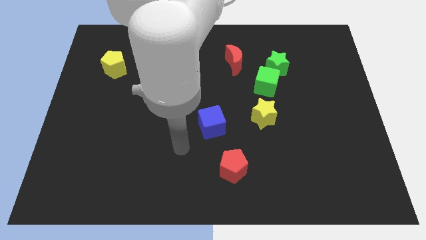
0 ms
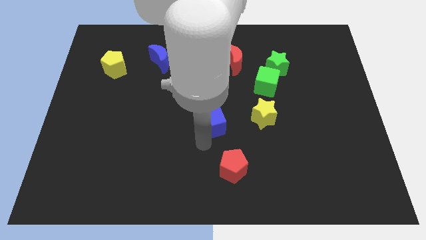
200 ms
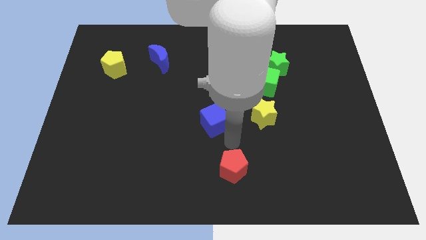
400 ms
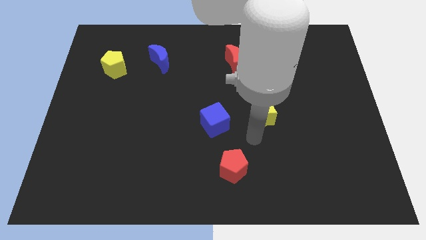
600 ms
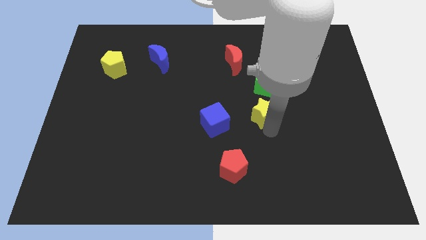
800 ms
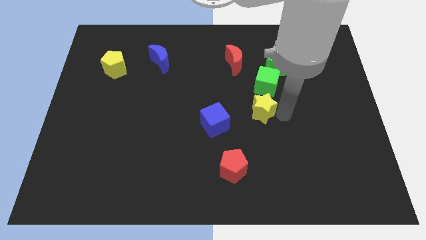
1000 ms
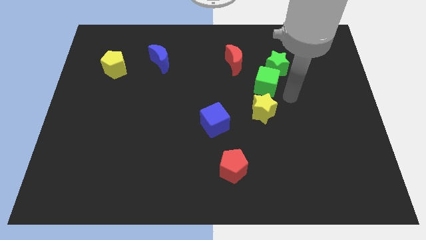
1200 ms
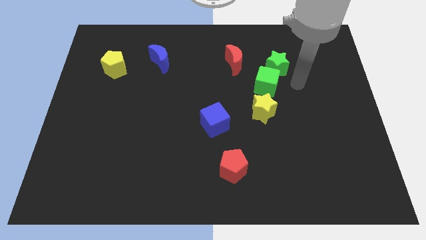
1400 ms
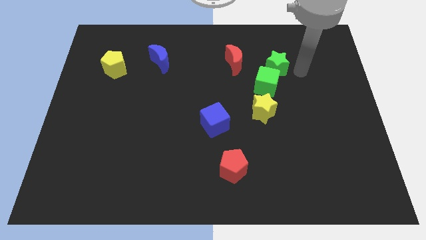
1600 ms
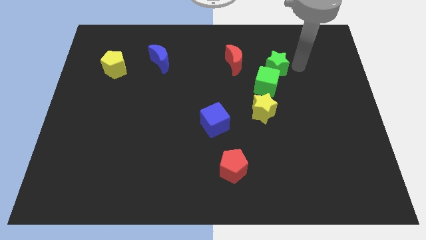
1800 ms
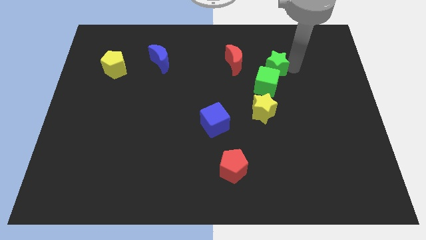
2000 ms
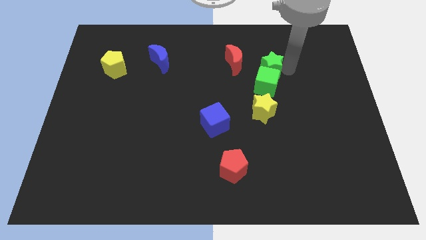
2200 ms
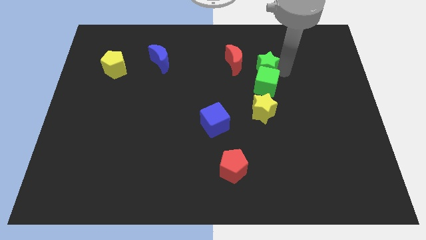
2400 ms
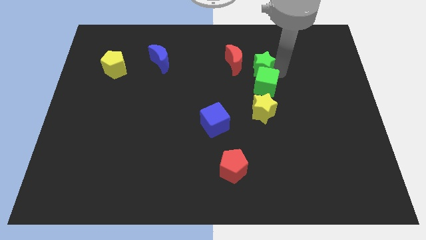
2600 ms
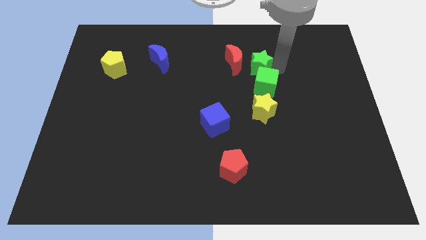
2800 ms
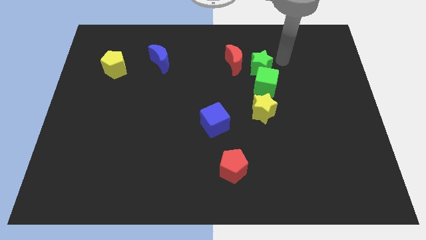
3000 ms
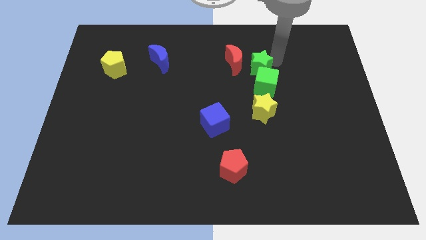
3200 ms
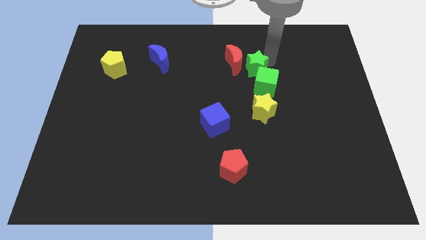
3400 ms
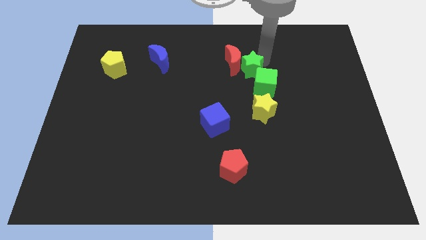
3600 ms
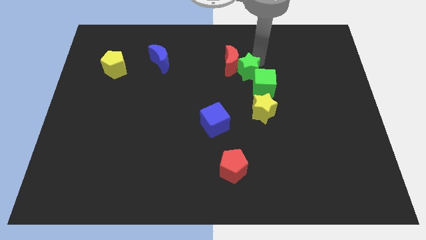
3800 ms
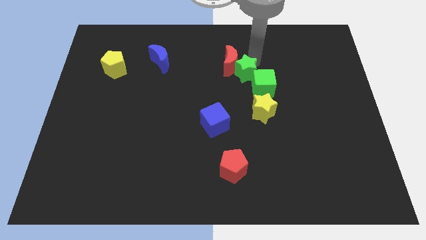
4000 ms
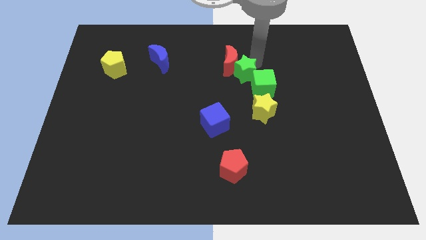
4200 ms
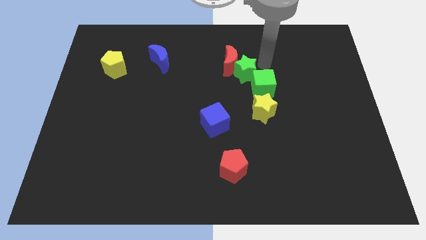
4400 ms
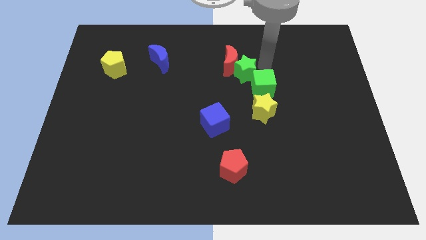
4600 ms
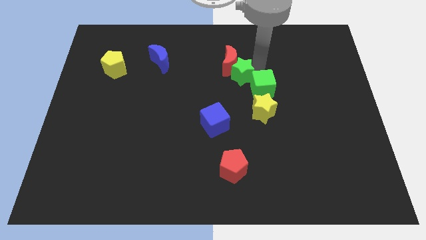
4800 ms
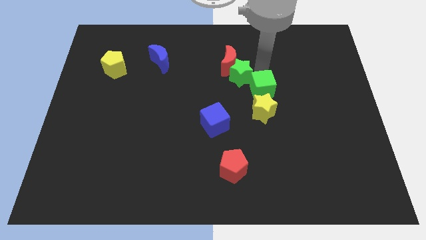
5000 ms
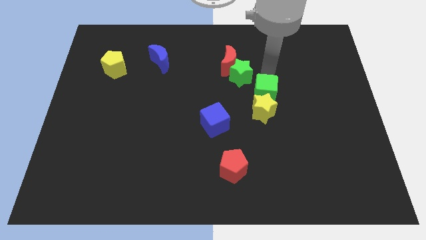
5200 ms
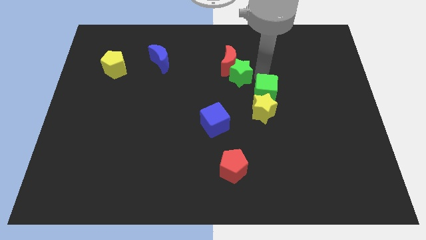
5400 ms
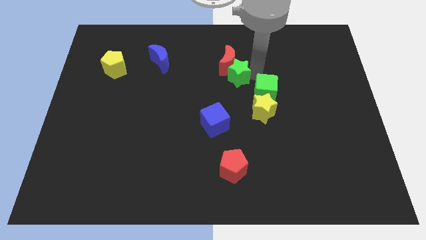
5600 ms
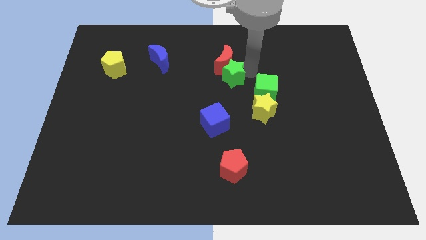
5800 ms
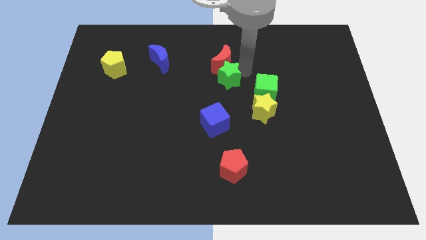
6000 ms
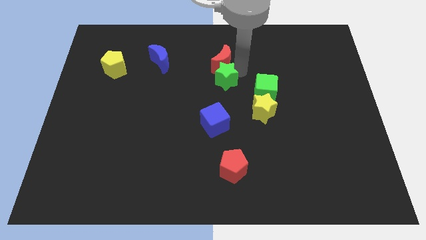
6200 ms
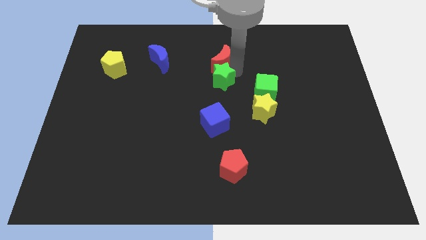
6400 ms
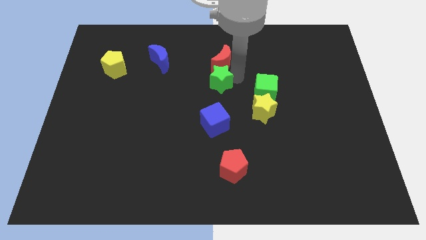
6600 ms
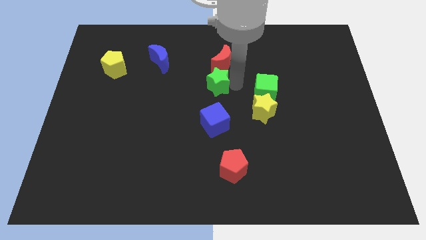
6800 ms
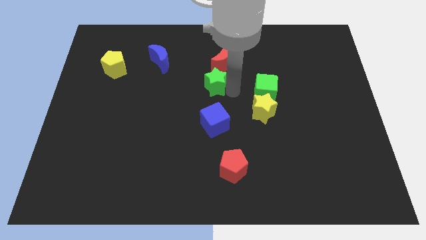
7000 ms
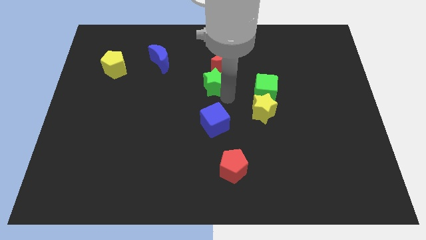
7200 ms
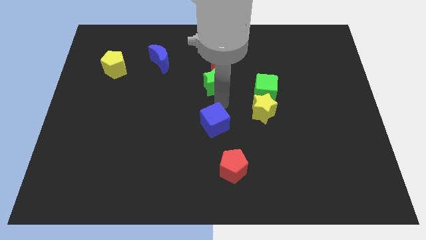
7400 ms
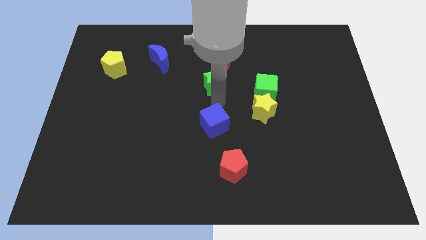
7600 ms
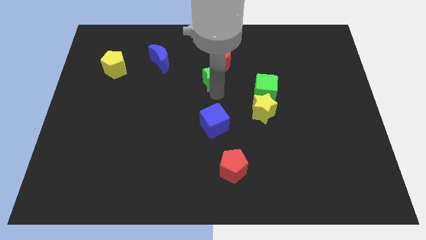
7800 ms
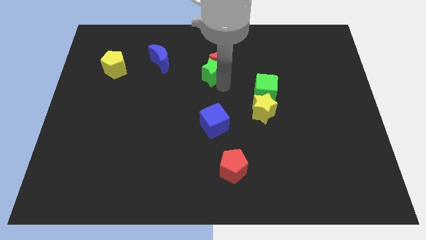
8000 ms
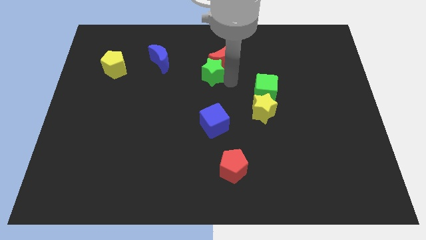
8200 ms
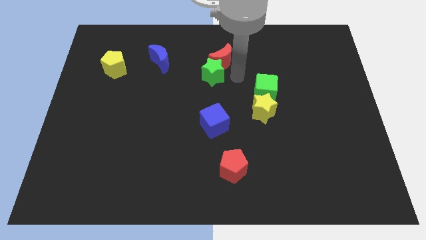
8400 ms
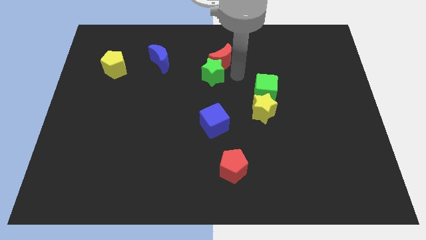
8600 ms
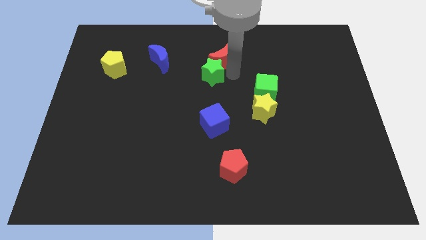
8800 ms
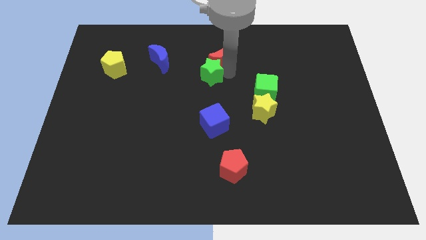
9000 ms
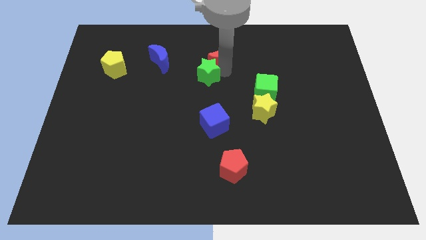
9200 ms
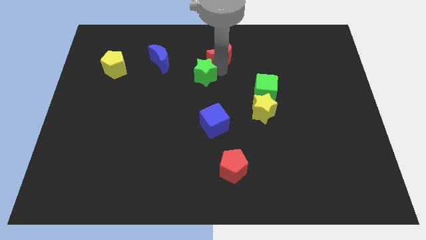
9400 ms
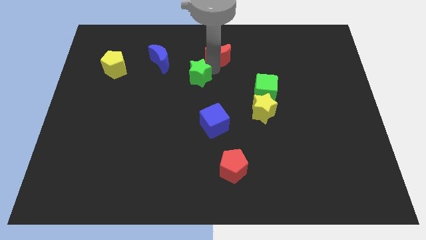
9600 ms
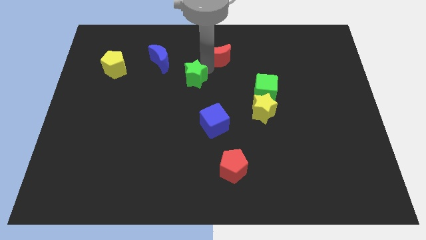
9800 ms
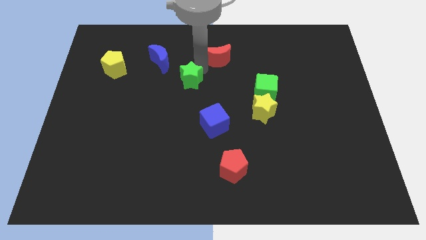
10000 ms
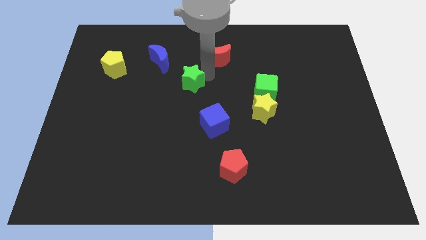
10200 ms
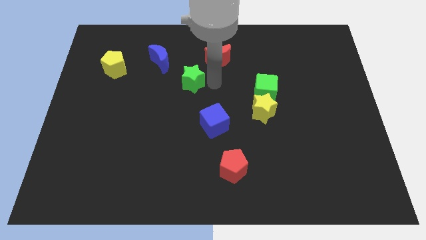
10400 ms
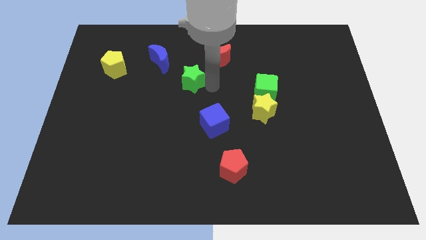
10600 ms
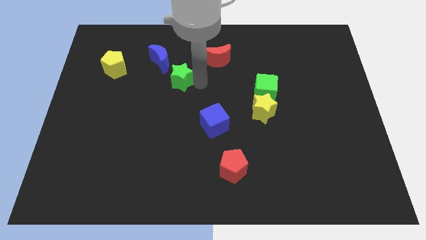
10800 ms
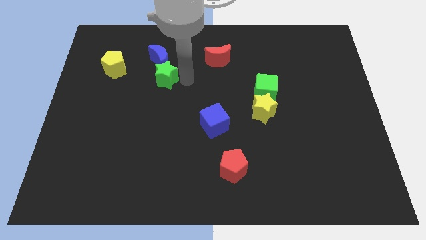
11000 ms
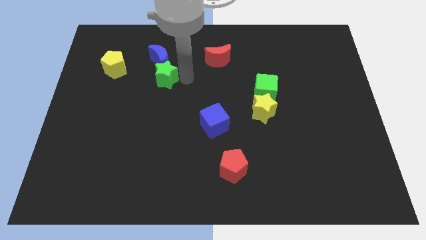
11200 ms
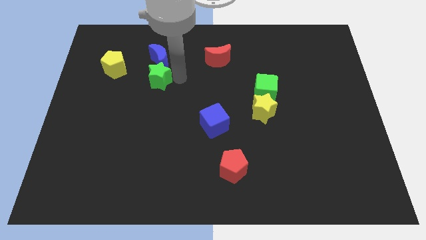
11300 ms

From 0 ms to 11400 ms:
move the green star to the bottom left side of the blue moon

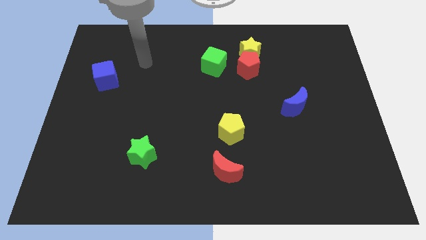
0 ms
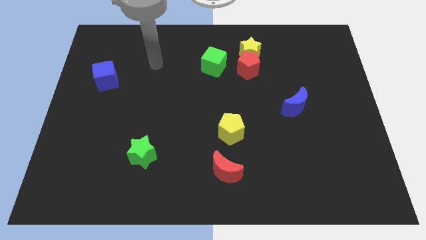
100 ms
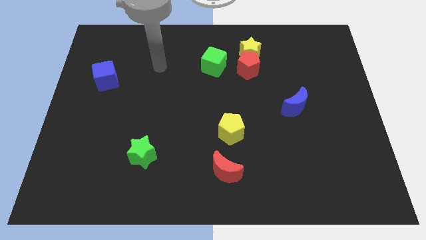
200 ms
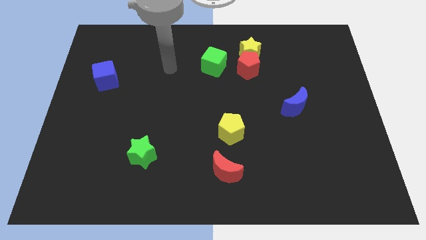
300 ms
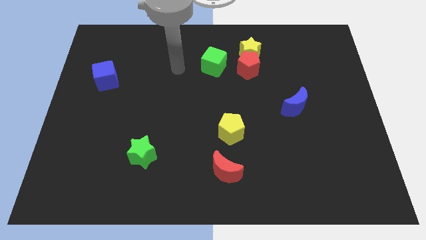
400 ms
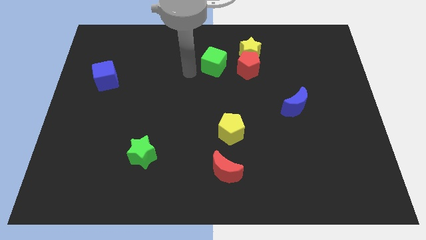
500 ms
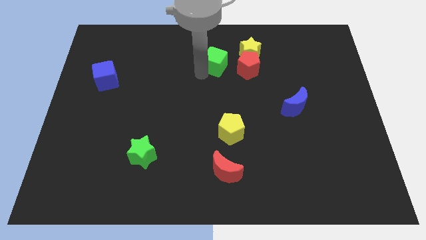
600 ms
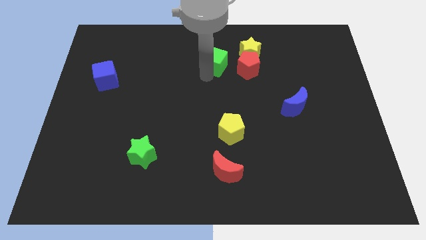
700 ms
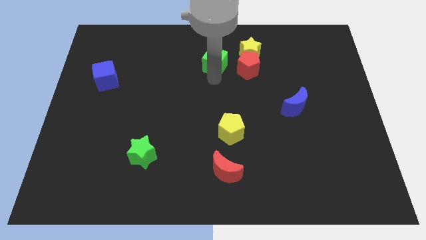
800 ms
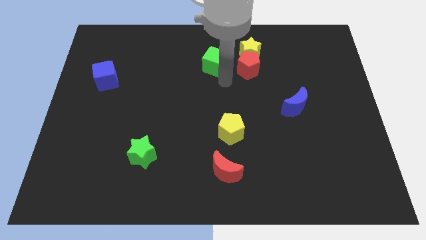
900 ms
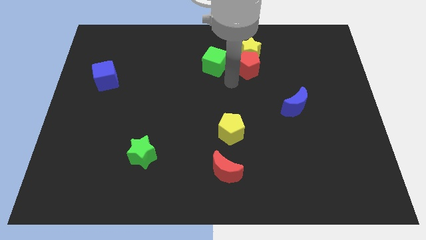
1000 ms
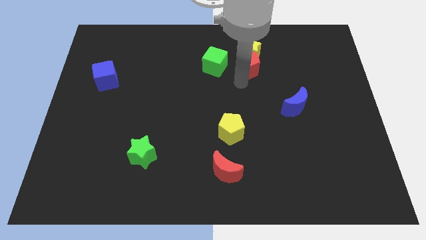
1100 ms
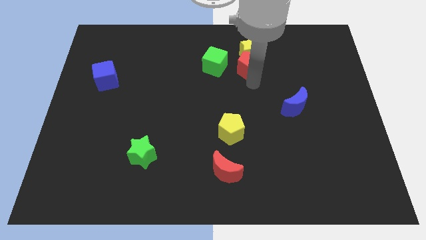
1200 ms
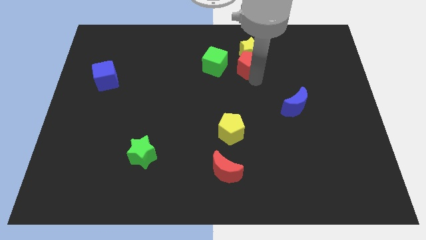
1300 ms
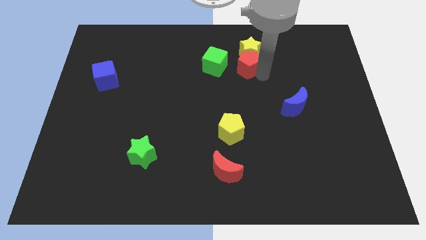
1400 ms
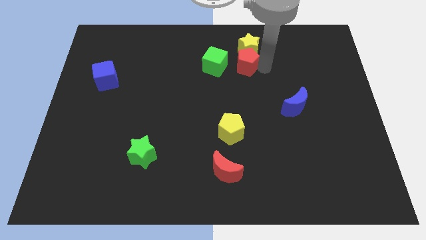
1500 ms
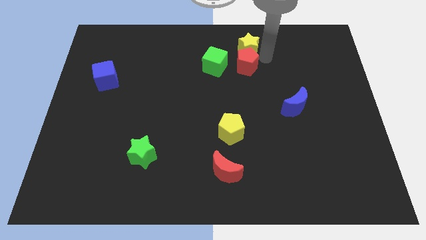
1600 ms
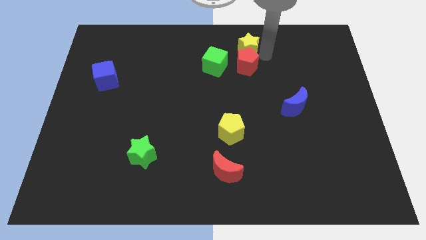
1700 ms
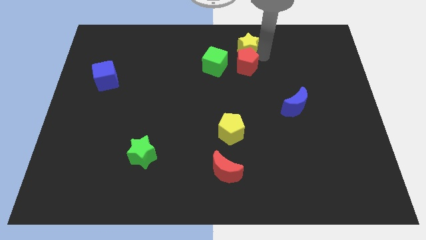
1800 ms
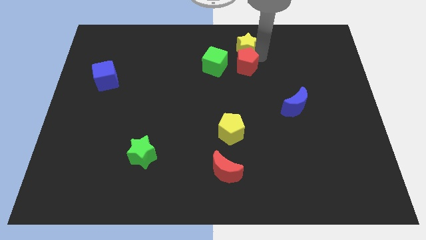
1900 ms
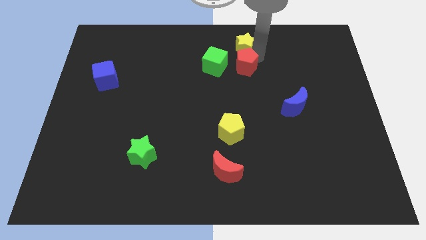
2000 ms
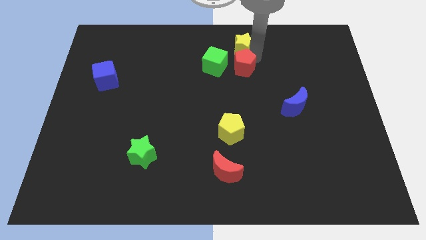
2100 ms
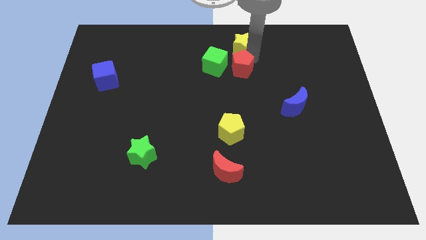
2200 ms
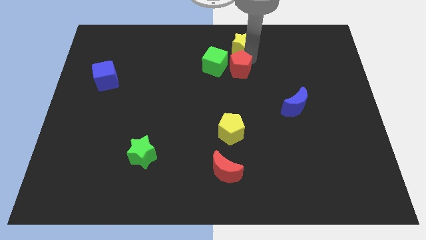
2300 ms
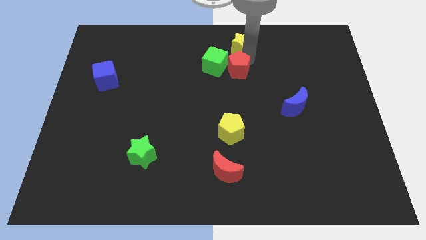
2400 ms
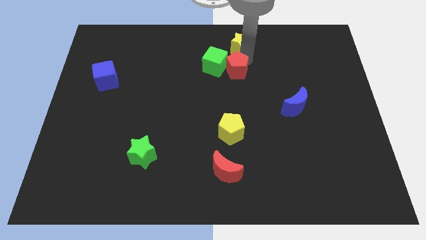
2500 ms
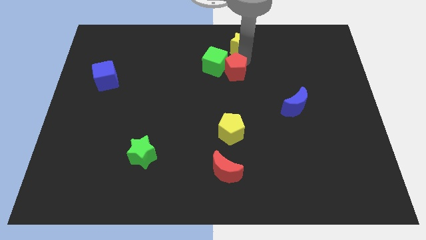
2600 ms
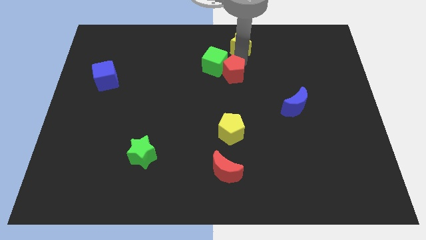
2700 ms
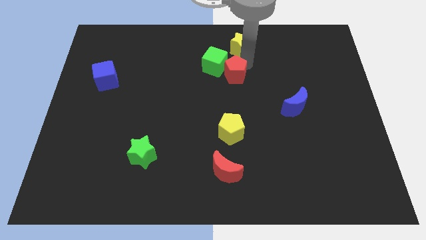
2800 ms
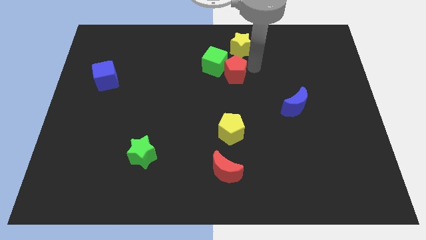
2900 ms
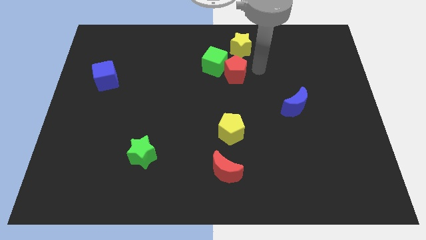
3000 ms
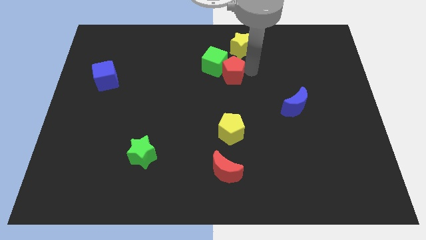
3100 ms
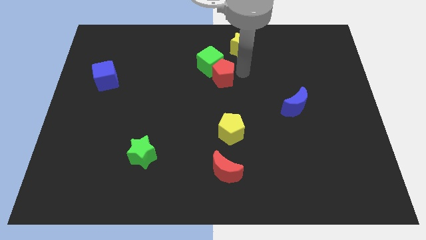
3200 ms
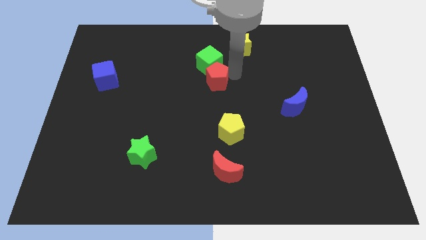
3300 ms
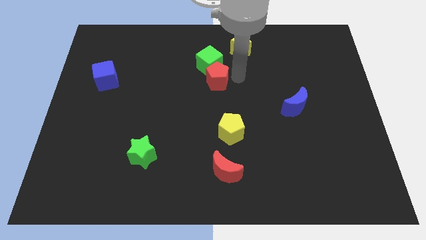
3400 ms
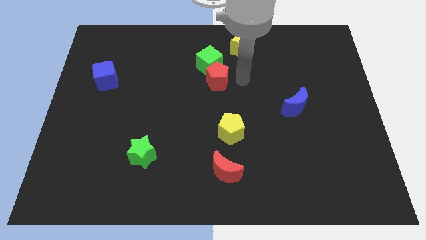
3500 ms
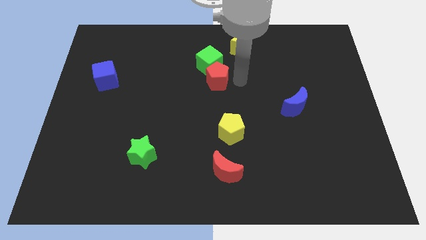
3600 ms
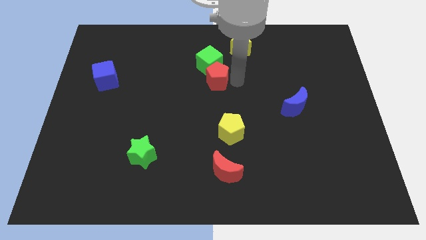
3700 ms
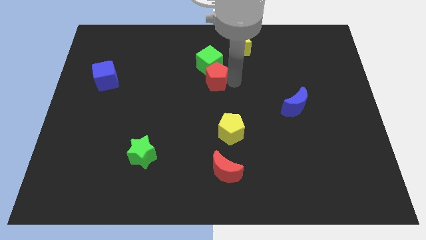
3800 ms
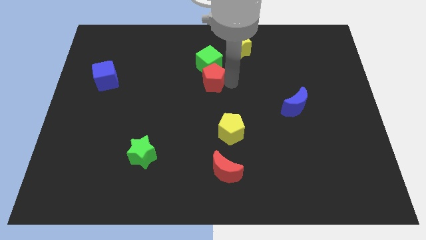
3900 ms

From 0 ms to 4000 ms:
push the red pentagon to the bottom left side of the green cube
